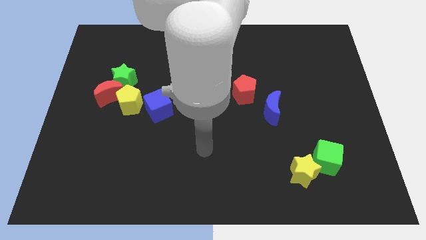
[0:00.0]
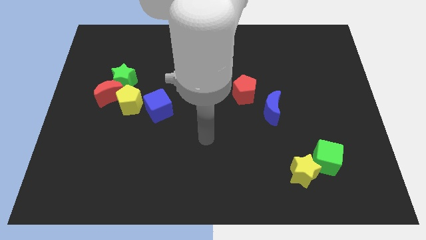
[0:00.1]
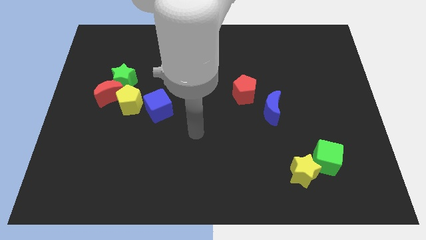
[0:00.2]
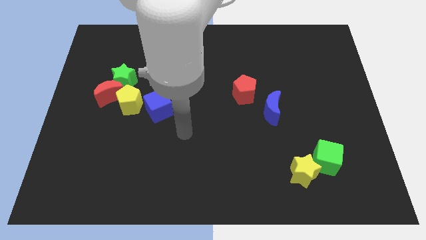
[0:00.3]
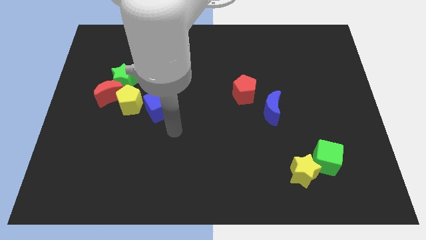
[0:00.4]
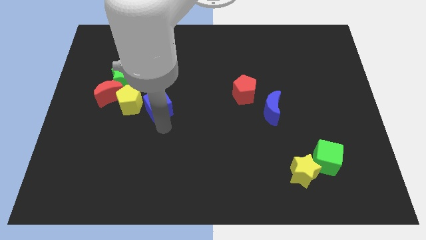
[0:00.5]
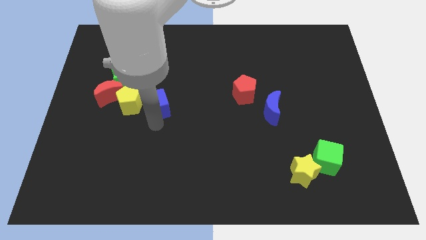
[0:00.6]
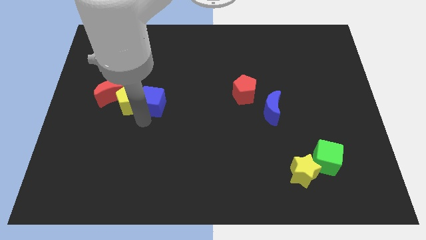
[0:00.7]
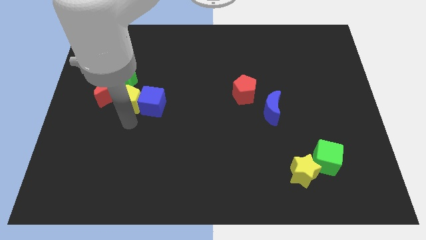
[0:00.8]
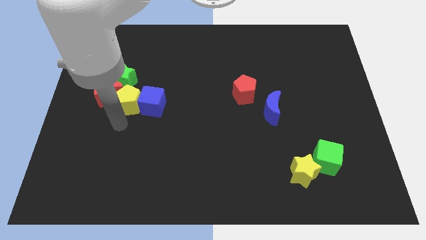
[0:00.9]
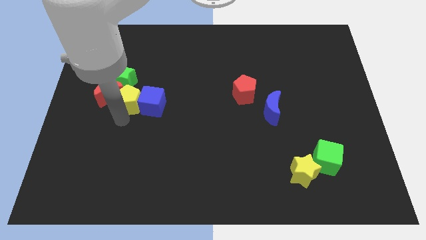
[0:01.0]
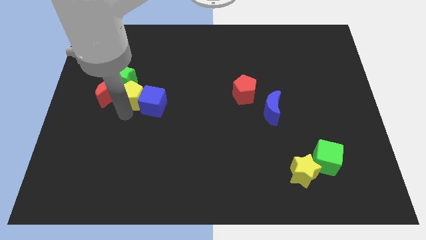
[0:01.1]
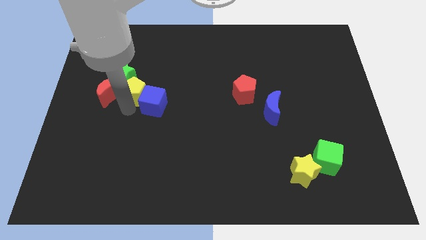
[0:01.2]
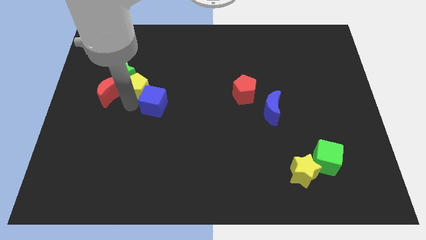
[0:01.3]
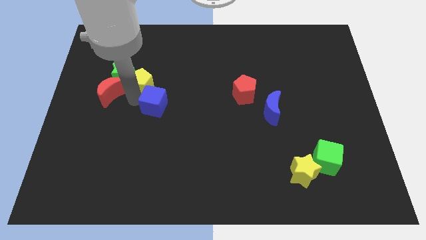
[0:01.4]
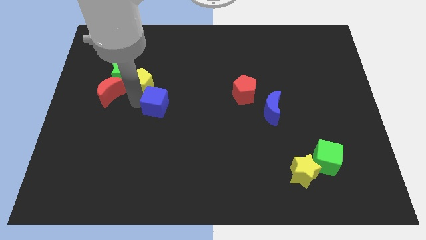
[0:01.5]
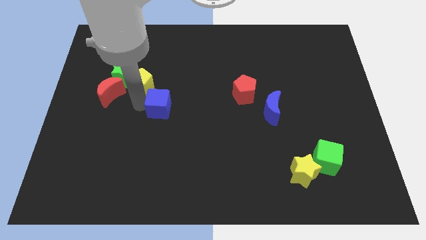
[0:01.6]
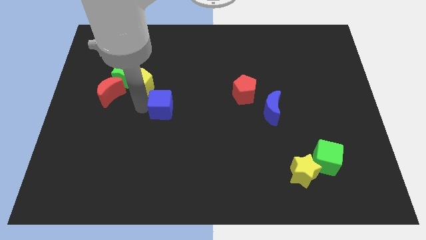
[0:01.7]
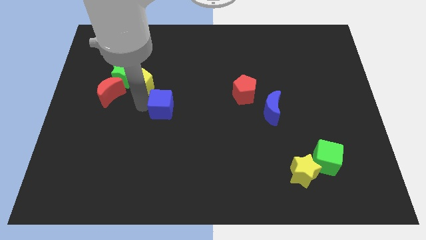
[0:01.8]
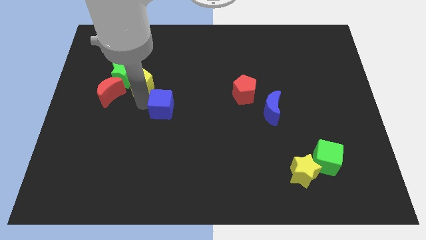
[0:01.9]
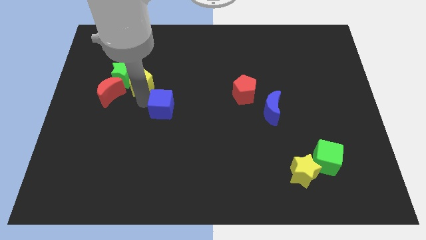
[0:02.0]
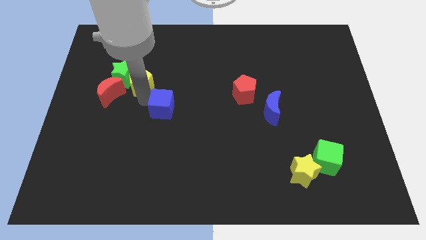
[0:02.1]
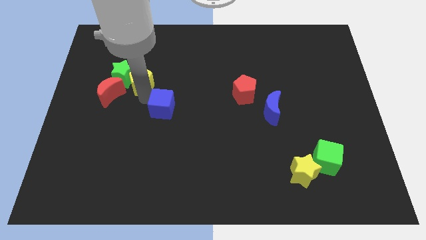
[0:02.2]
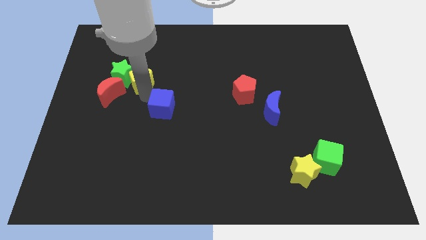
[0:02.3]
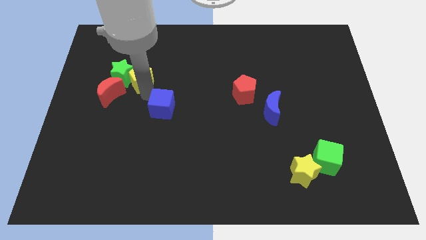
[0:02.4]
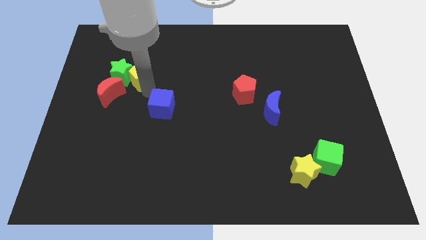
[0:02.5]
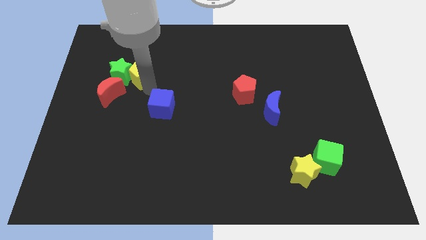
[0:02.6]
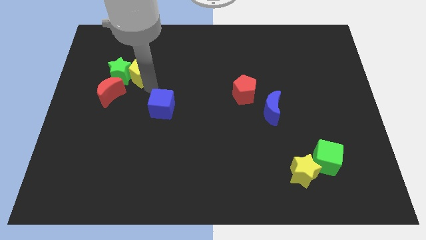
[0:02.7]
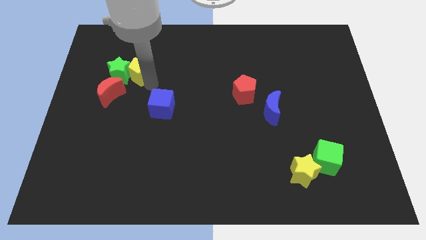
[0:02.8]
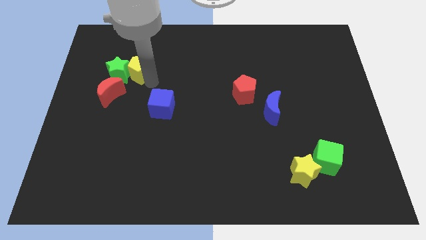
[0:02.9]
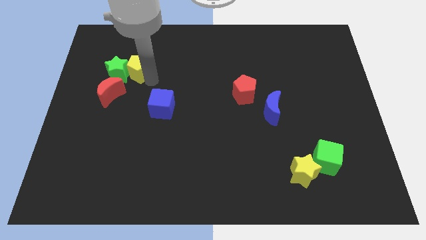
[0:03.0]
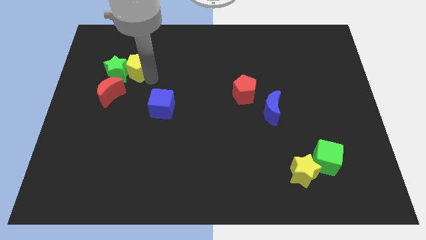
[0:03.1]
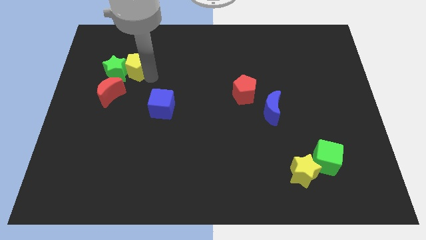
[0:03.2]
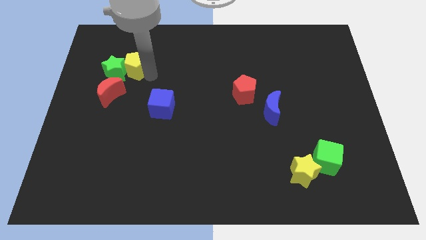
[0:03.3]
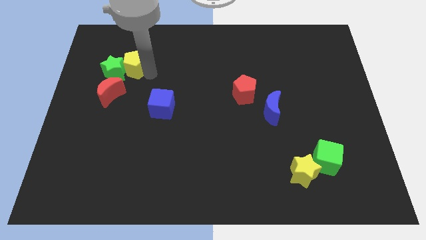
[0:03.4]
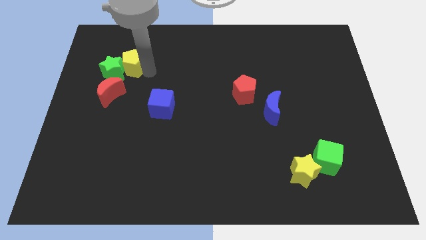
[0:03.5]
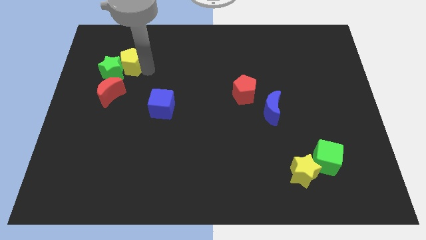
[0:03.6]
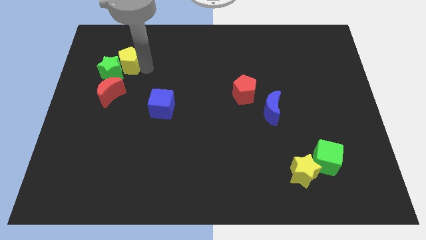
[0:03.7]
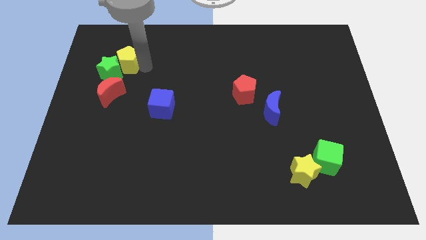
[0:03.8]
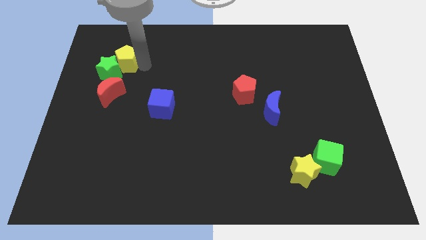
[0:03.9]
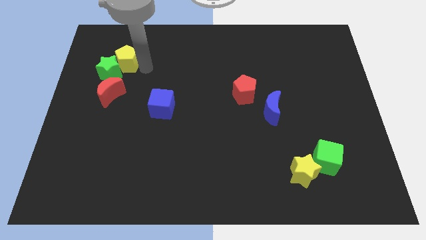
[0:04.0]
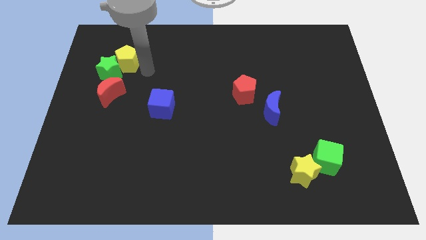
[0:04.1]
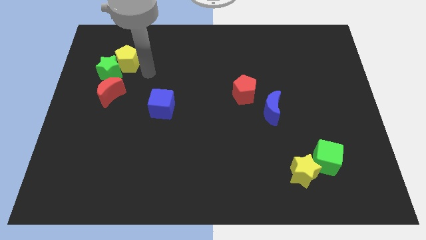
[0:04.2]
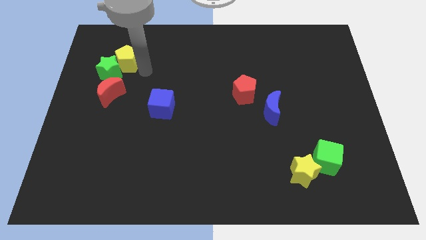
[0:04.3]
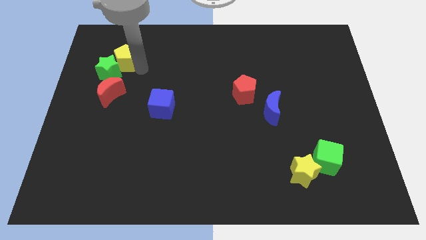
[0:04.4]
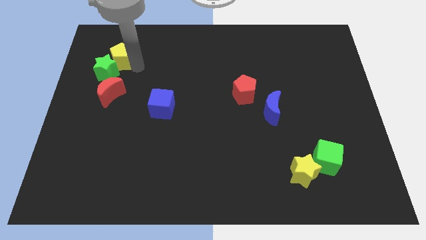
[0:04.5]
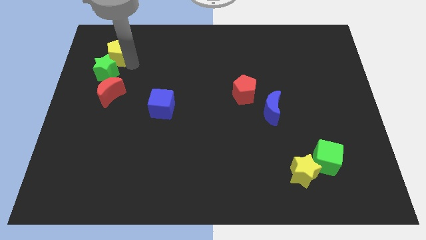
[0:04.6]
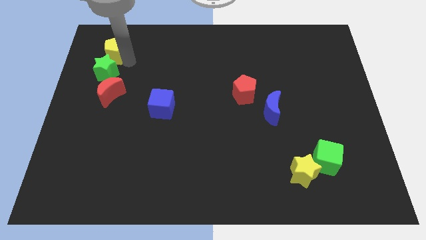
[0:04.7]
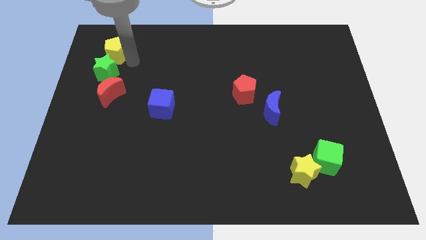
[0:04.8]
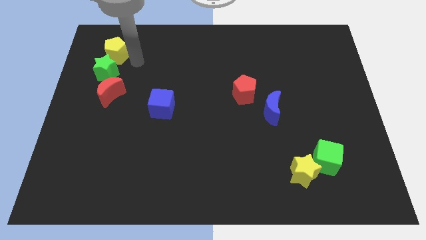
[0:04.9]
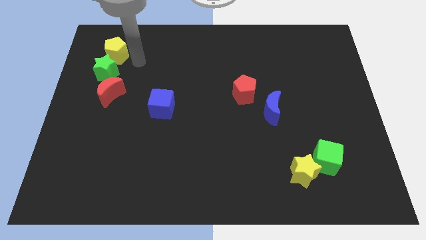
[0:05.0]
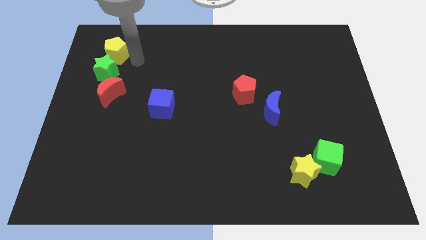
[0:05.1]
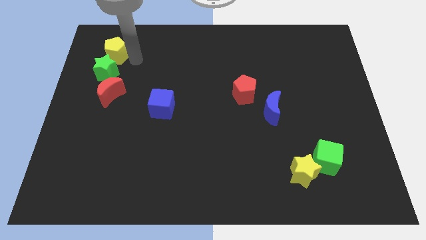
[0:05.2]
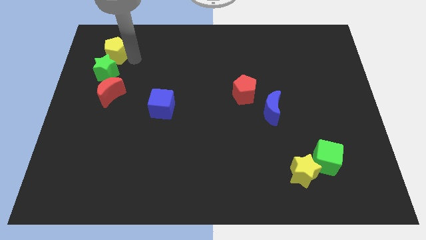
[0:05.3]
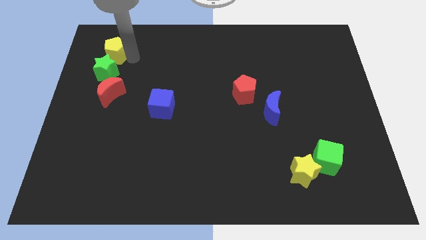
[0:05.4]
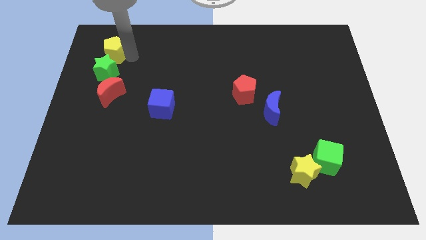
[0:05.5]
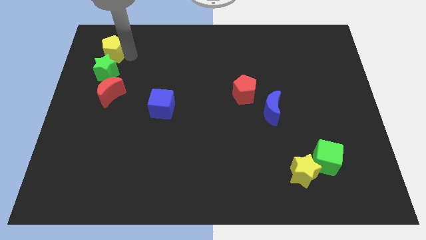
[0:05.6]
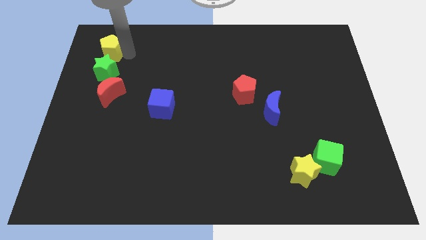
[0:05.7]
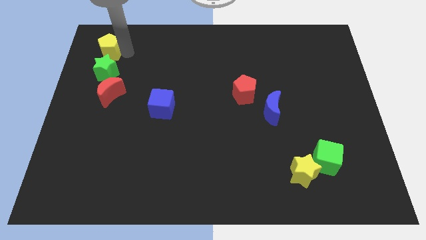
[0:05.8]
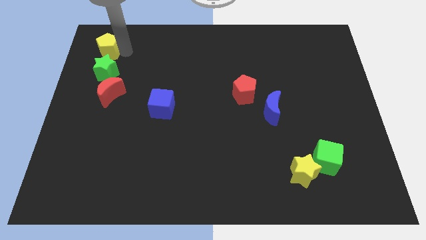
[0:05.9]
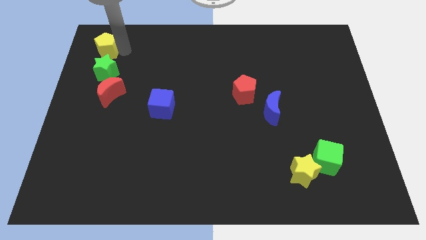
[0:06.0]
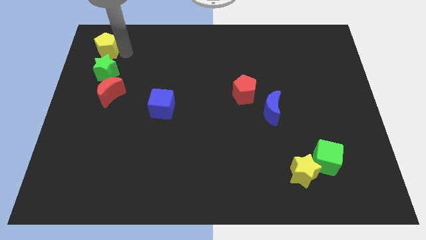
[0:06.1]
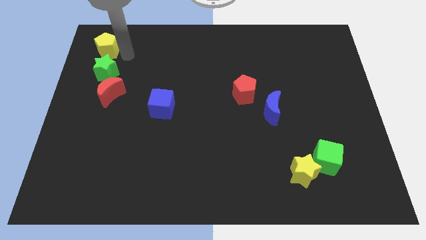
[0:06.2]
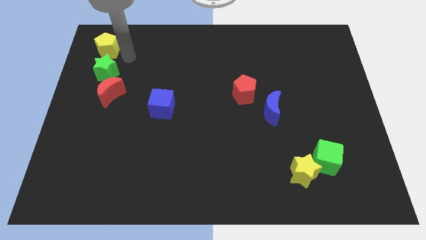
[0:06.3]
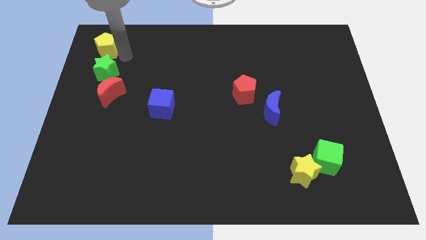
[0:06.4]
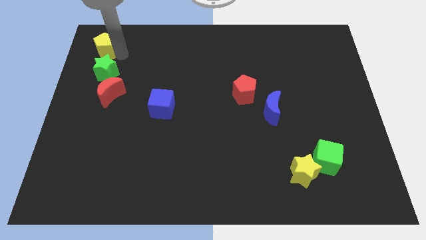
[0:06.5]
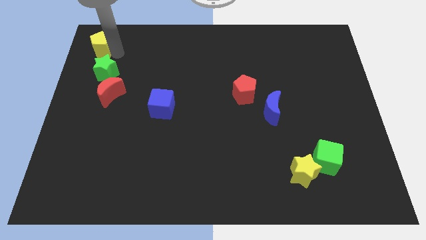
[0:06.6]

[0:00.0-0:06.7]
put the yellow pentagon to the upper left corner

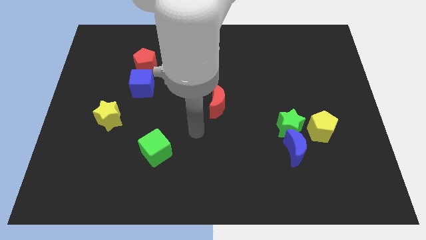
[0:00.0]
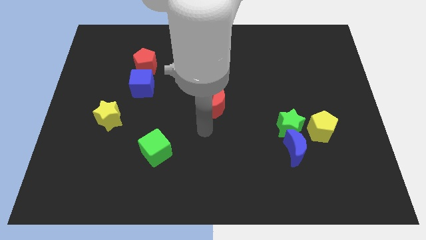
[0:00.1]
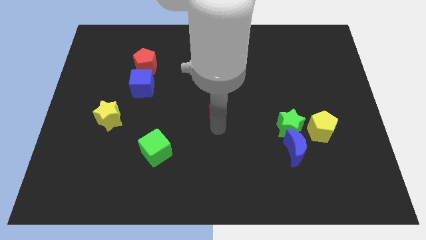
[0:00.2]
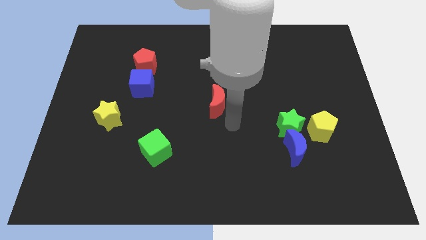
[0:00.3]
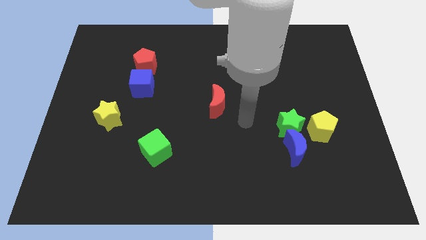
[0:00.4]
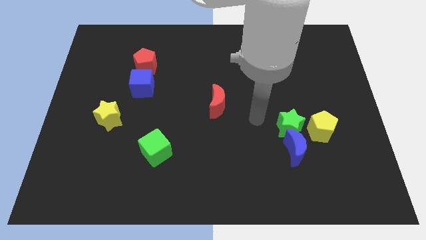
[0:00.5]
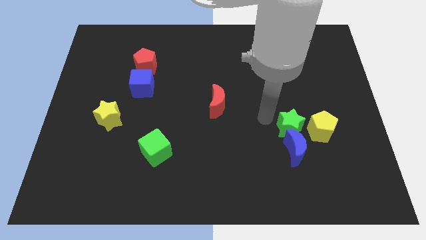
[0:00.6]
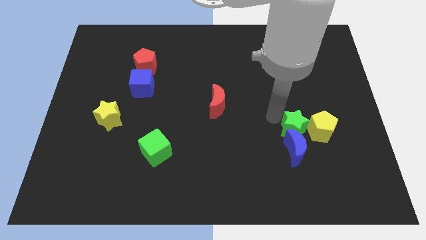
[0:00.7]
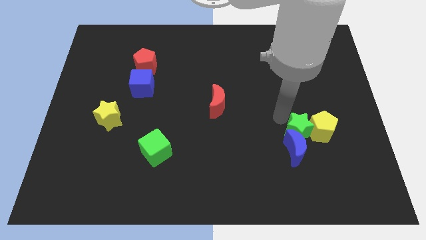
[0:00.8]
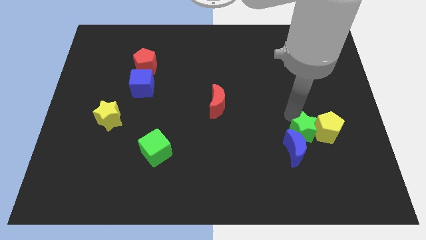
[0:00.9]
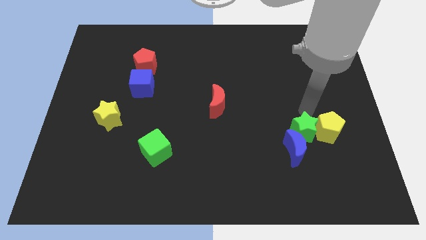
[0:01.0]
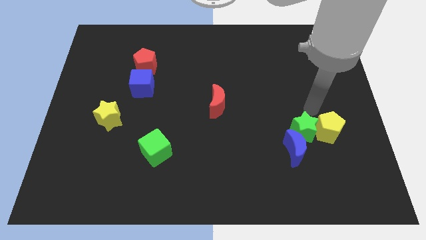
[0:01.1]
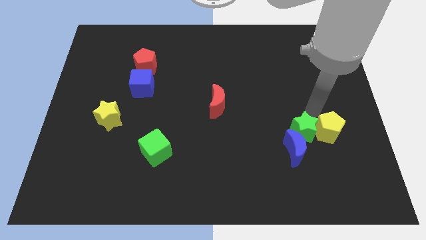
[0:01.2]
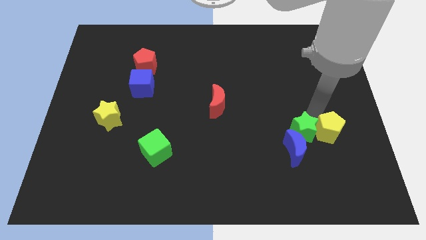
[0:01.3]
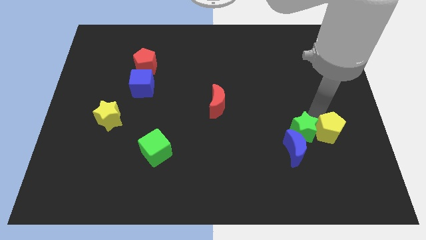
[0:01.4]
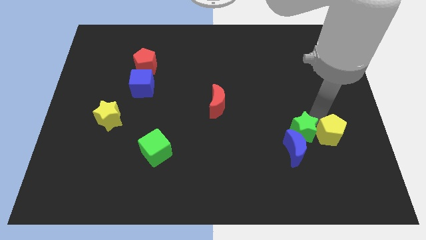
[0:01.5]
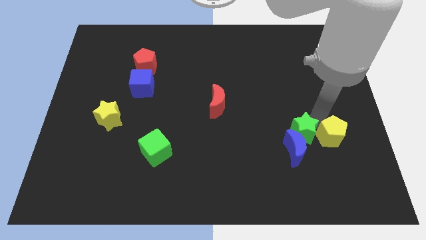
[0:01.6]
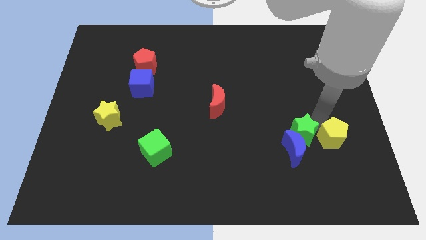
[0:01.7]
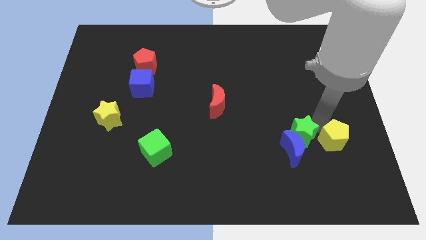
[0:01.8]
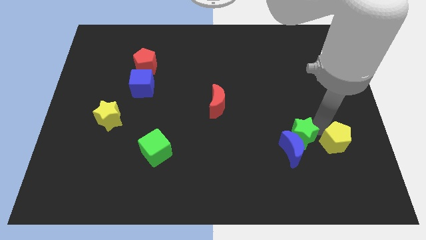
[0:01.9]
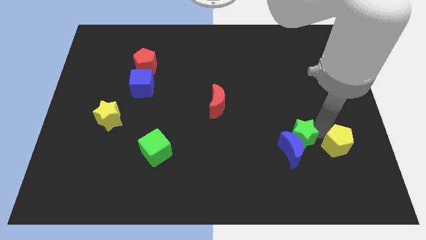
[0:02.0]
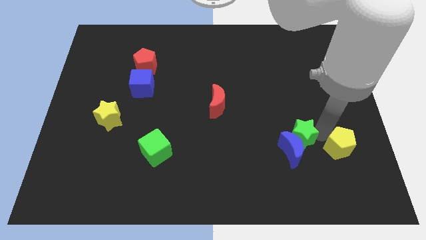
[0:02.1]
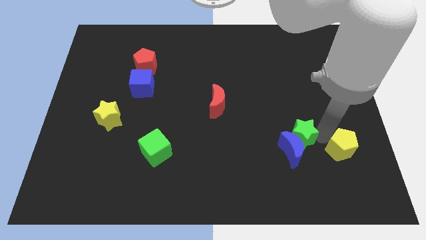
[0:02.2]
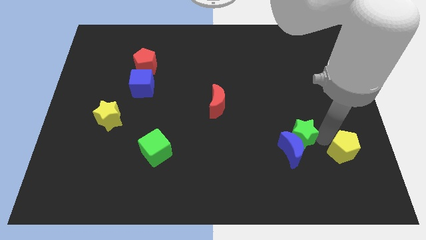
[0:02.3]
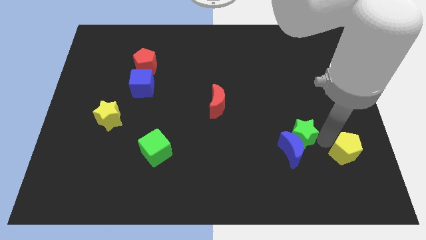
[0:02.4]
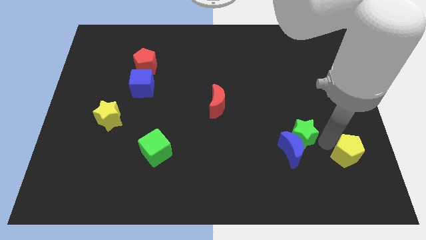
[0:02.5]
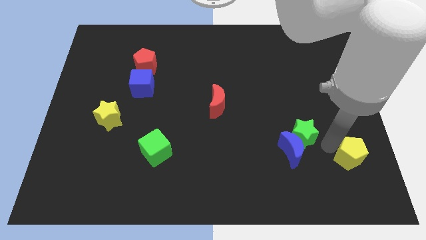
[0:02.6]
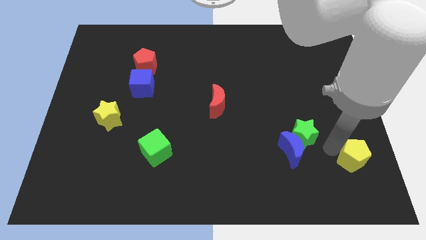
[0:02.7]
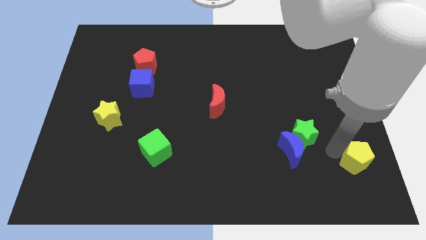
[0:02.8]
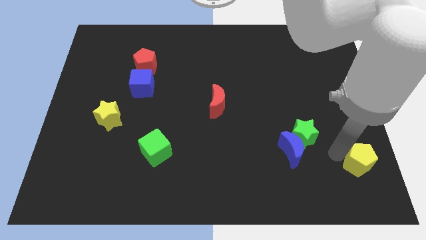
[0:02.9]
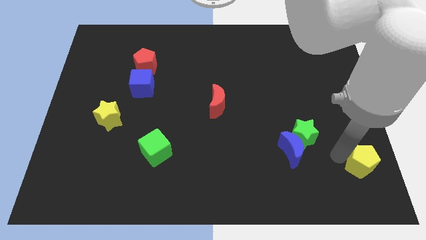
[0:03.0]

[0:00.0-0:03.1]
push the yellow pentagon to the bottom right of the board
